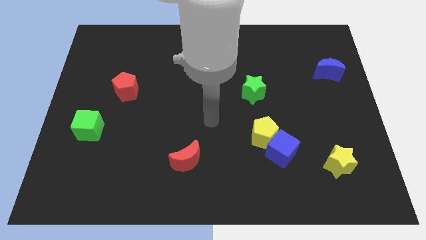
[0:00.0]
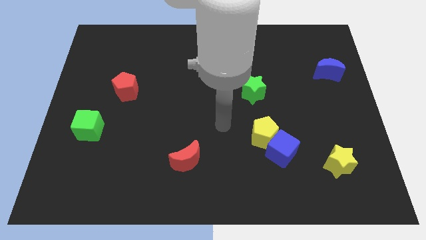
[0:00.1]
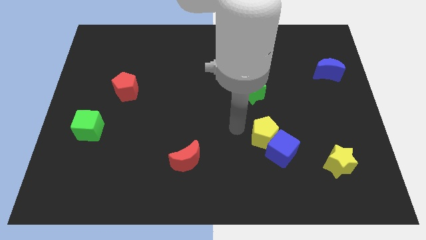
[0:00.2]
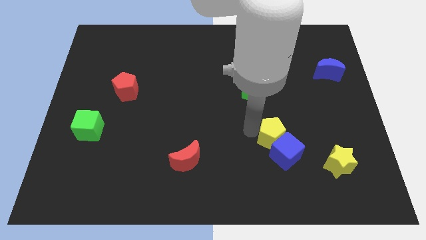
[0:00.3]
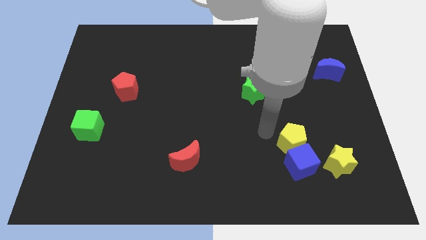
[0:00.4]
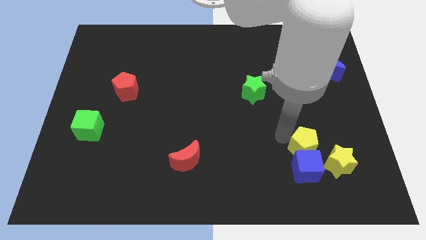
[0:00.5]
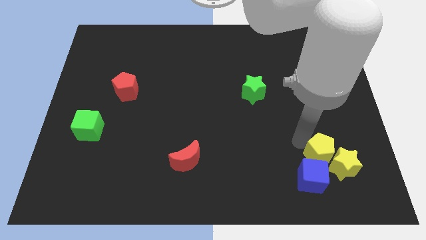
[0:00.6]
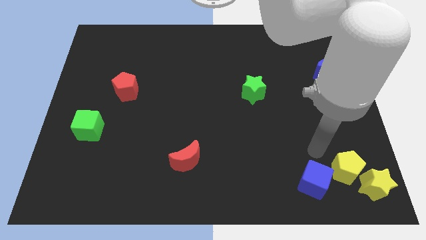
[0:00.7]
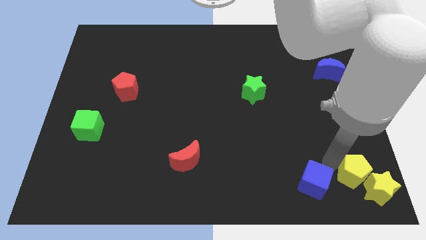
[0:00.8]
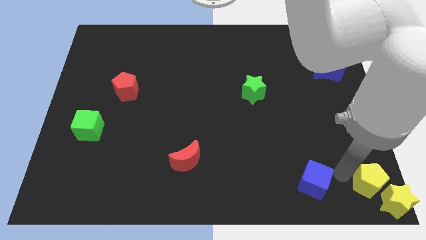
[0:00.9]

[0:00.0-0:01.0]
pull the blue cube apart from the yellow pentagon

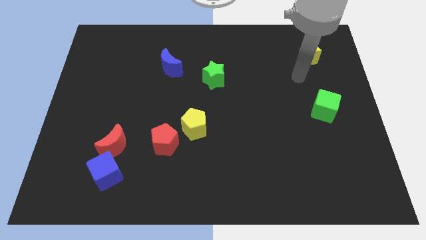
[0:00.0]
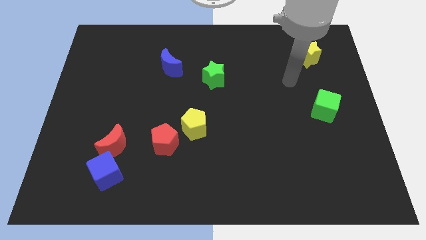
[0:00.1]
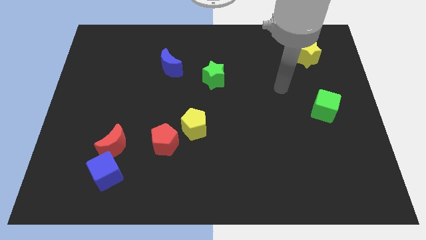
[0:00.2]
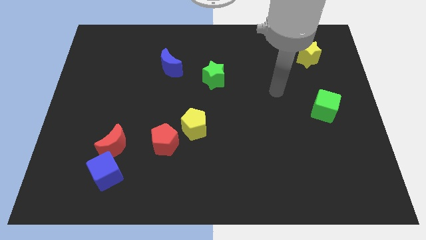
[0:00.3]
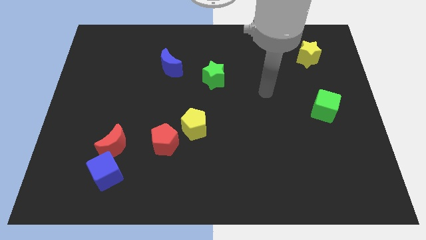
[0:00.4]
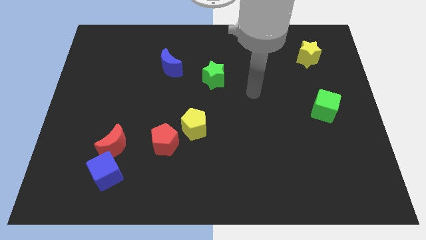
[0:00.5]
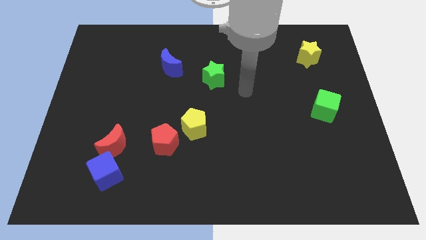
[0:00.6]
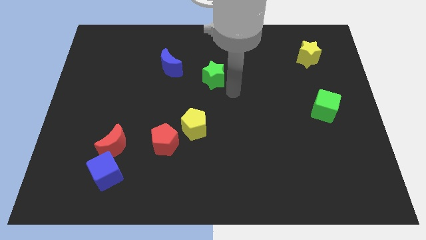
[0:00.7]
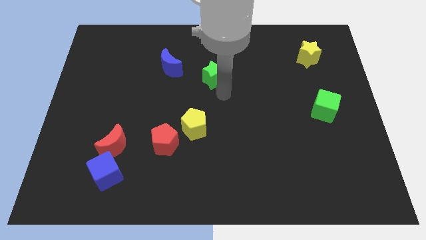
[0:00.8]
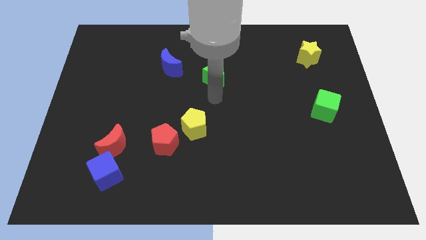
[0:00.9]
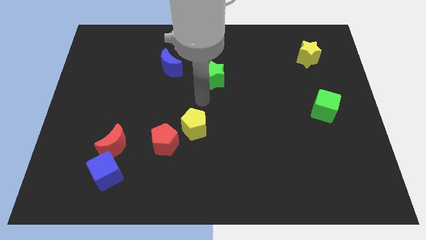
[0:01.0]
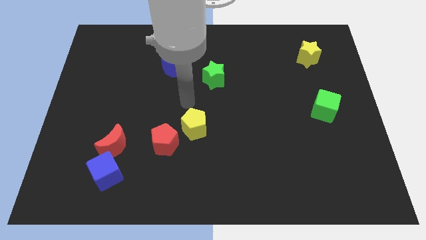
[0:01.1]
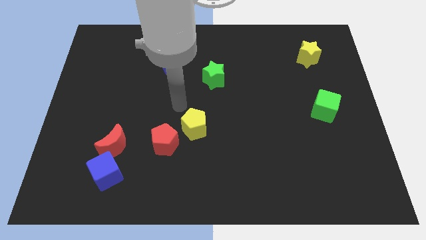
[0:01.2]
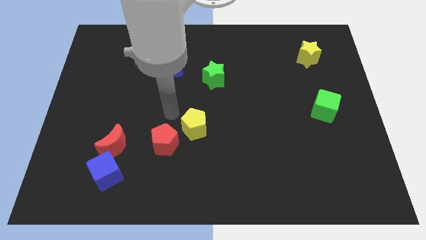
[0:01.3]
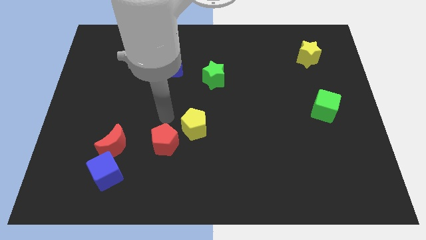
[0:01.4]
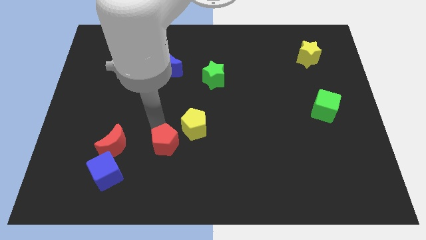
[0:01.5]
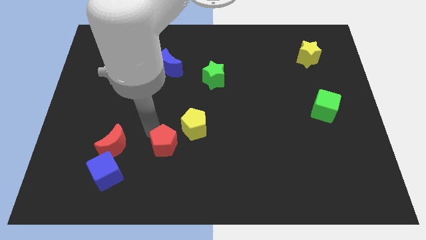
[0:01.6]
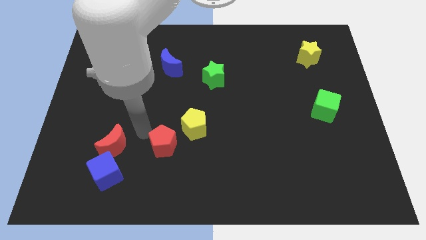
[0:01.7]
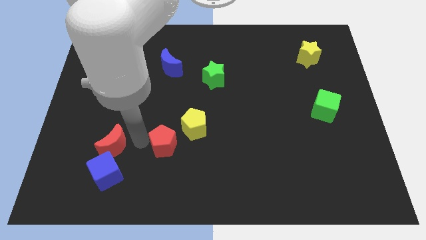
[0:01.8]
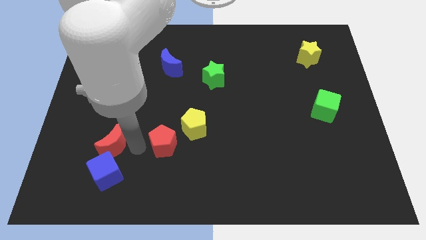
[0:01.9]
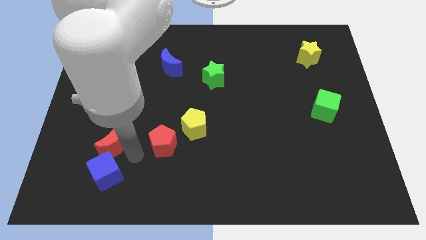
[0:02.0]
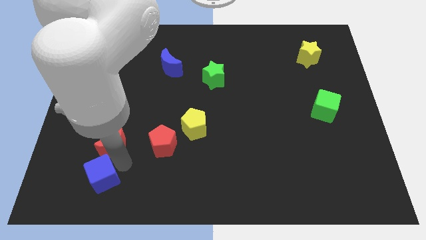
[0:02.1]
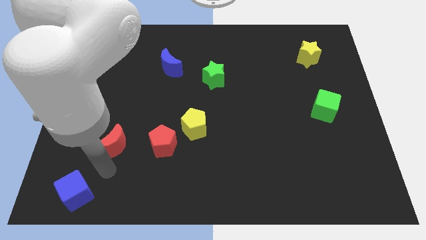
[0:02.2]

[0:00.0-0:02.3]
separate the red moon from the blue cube

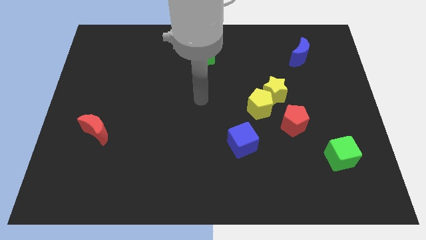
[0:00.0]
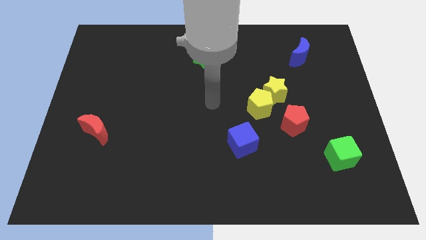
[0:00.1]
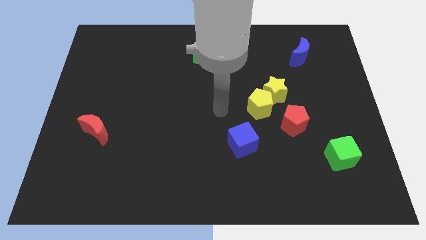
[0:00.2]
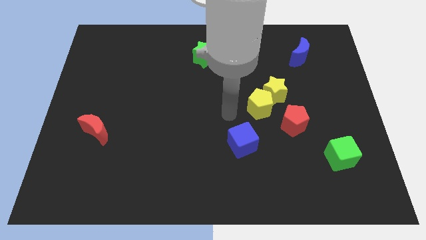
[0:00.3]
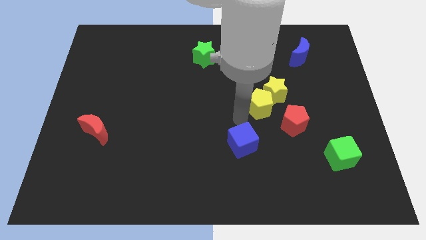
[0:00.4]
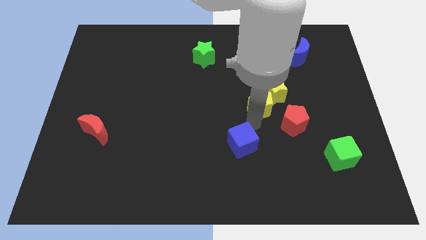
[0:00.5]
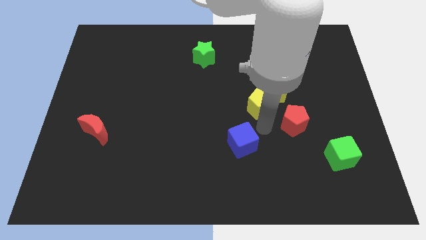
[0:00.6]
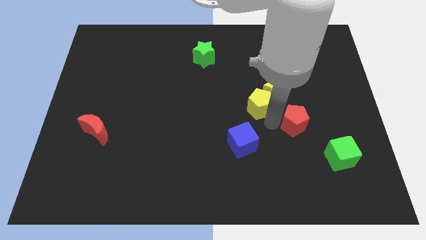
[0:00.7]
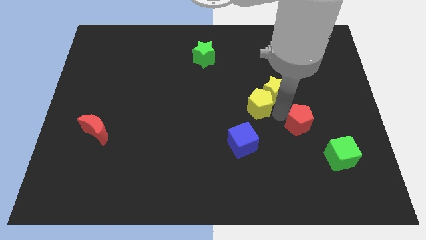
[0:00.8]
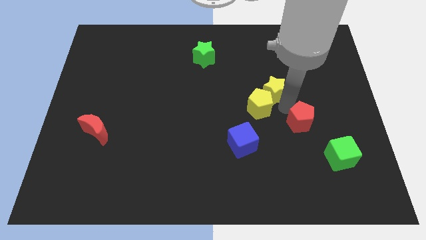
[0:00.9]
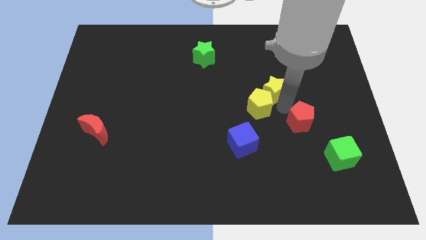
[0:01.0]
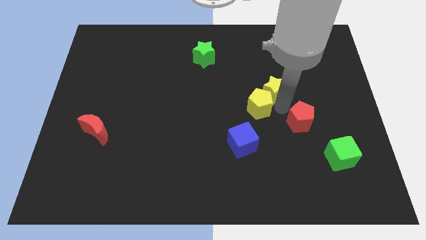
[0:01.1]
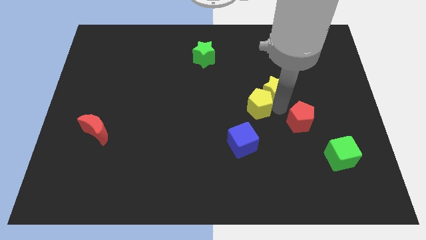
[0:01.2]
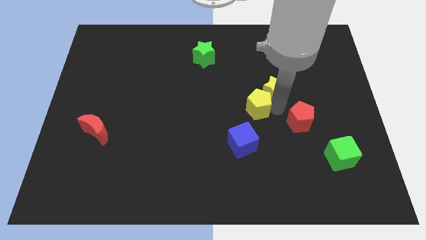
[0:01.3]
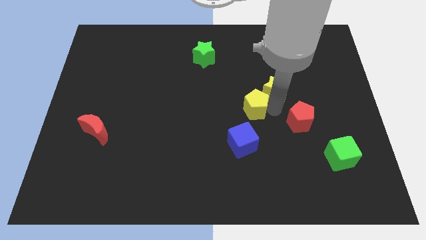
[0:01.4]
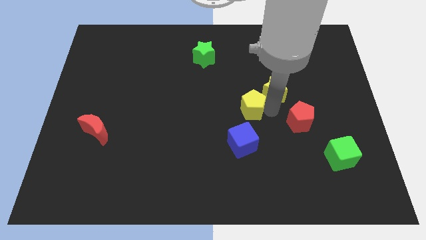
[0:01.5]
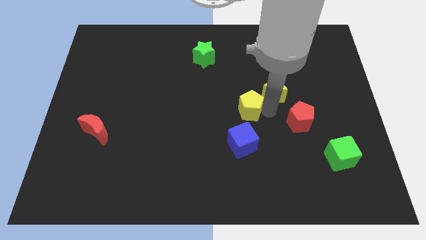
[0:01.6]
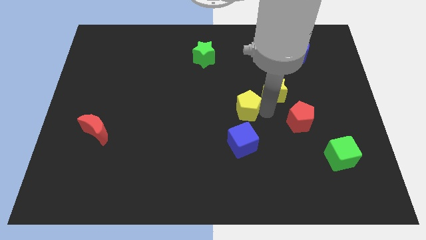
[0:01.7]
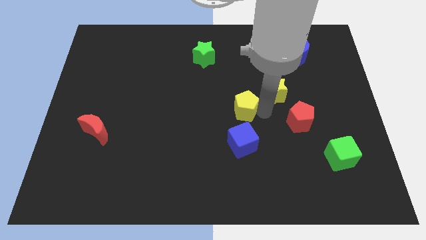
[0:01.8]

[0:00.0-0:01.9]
separate the yellow pentagon from the yellow star and red pentagon

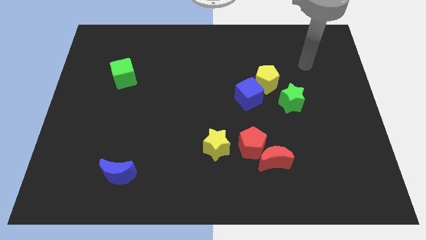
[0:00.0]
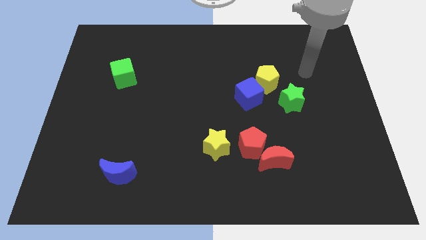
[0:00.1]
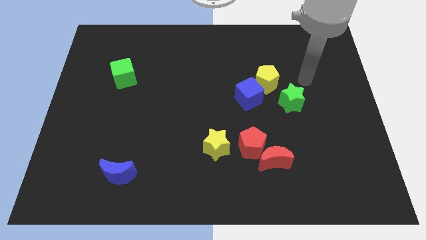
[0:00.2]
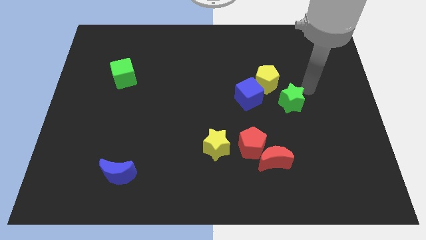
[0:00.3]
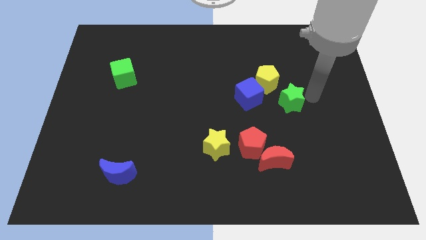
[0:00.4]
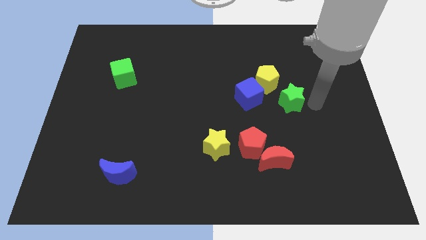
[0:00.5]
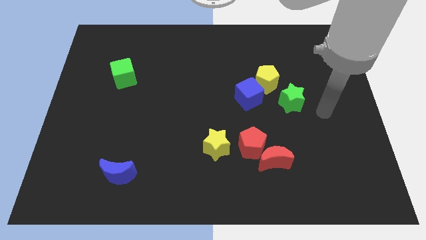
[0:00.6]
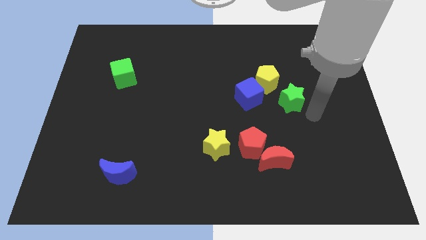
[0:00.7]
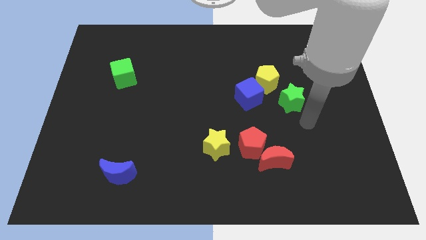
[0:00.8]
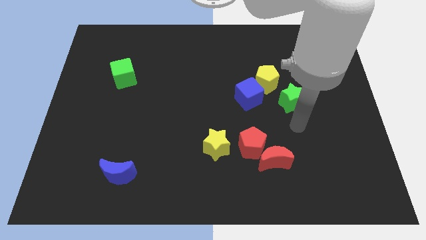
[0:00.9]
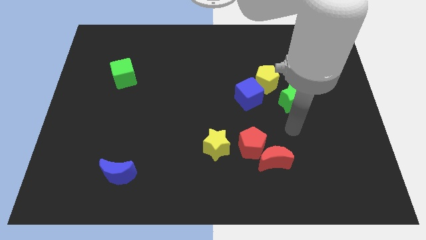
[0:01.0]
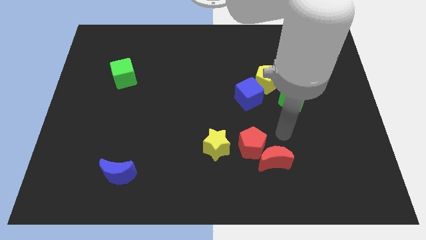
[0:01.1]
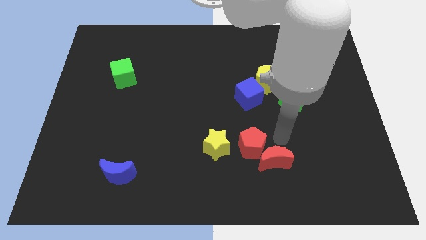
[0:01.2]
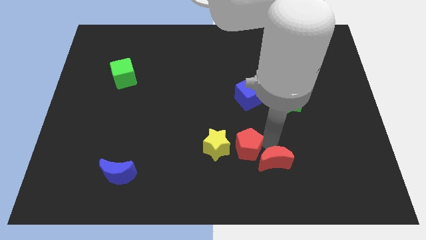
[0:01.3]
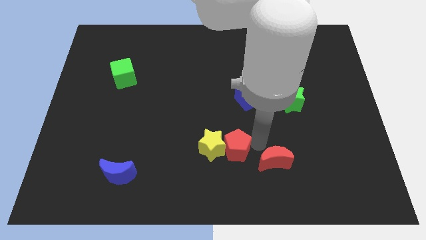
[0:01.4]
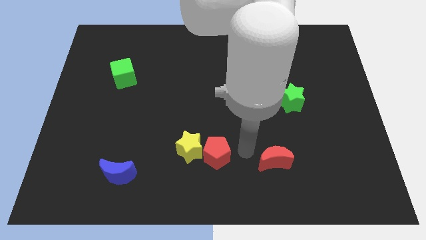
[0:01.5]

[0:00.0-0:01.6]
separate the red moon from the red pentagon

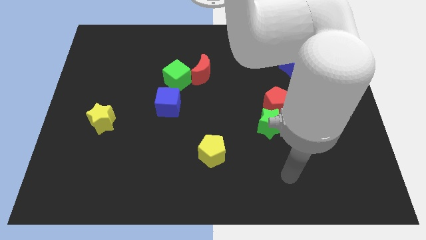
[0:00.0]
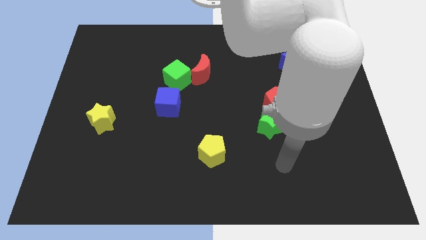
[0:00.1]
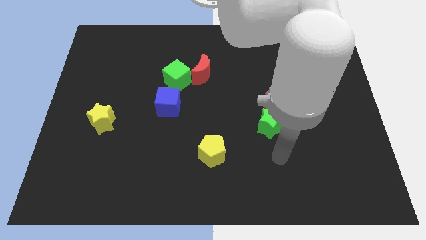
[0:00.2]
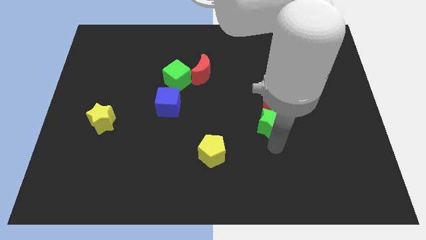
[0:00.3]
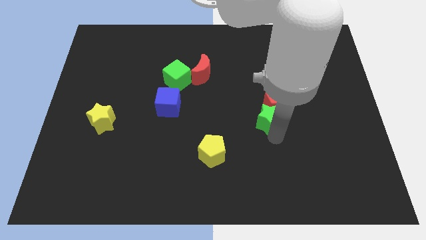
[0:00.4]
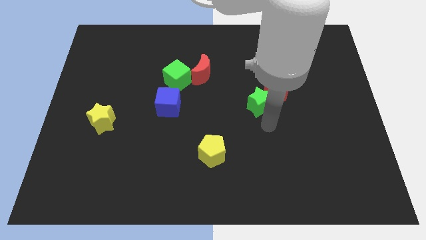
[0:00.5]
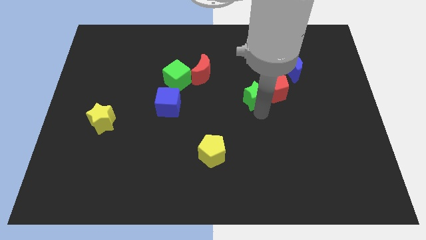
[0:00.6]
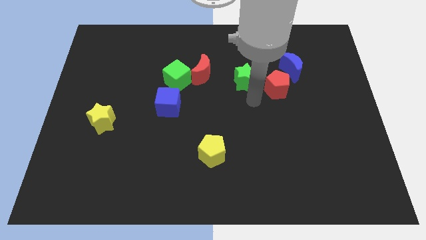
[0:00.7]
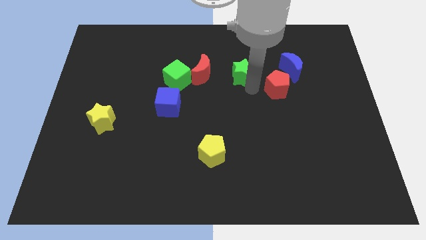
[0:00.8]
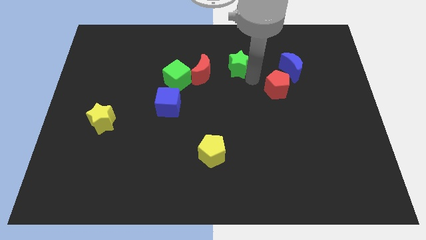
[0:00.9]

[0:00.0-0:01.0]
separate the red pentagon from the green star

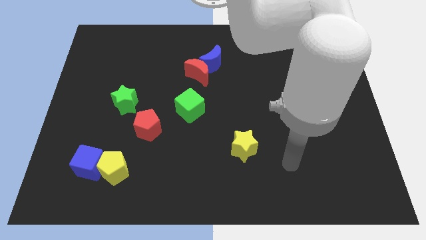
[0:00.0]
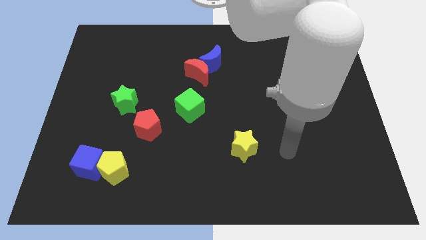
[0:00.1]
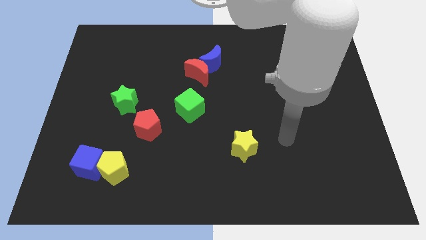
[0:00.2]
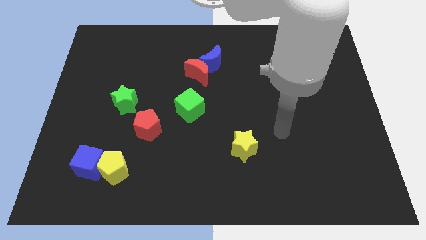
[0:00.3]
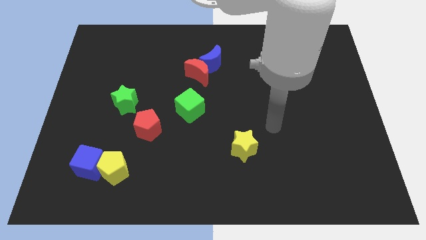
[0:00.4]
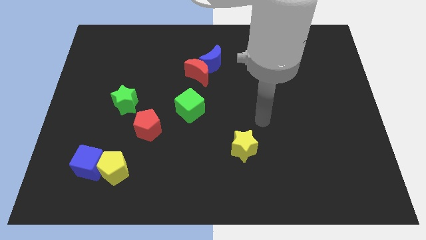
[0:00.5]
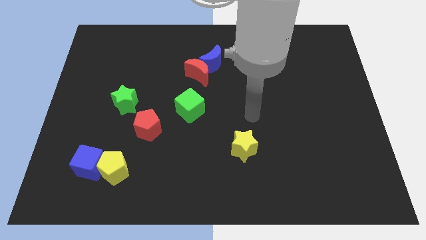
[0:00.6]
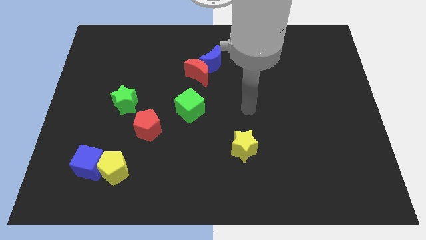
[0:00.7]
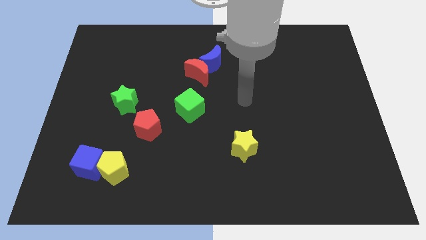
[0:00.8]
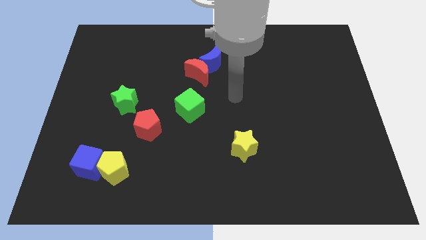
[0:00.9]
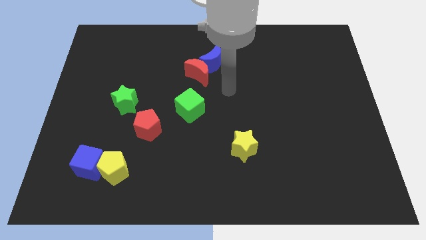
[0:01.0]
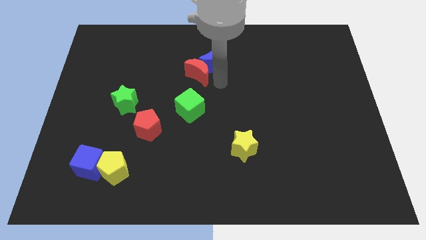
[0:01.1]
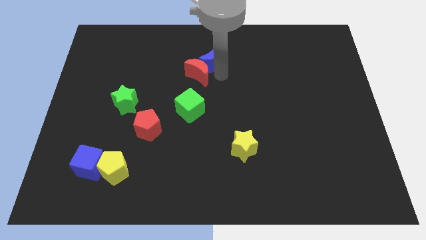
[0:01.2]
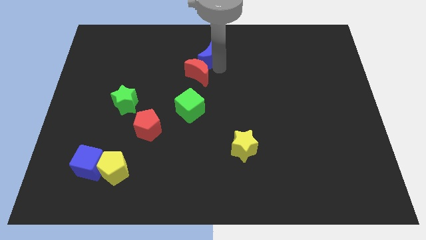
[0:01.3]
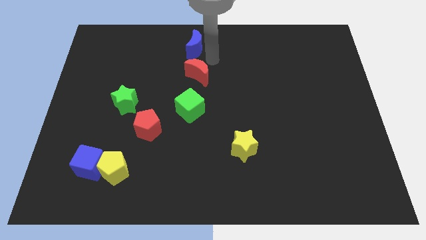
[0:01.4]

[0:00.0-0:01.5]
move the red moon away from the blue moon
